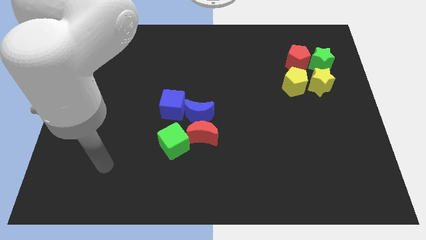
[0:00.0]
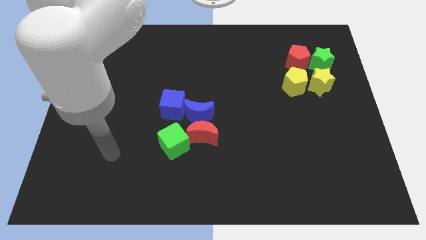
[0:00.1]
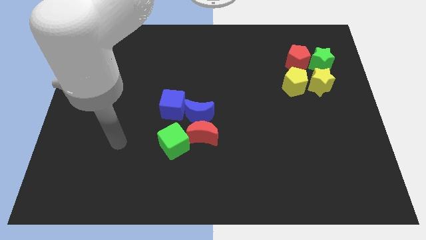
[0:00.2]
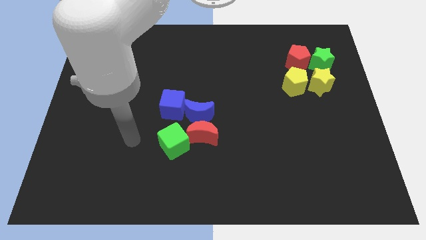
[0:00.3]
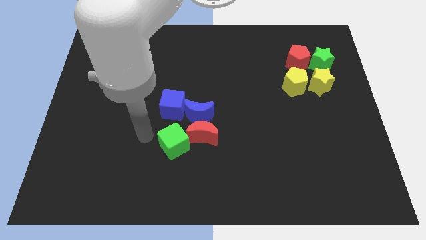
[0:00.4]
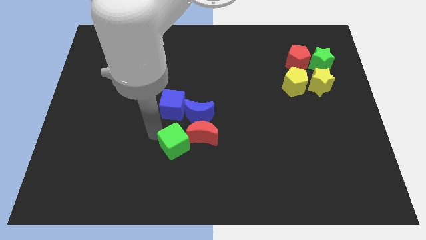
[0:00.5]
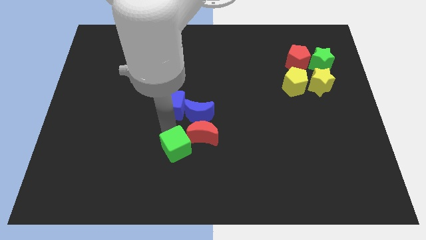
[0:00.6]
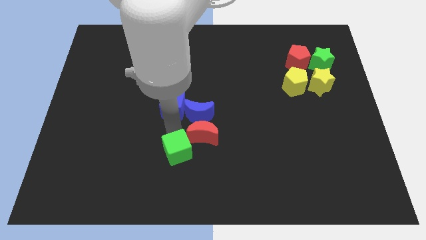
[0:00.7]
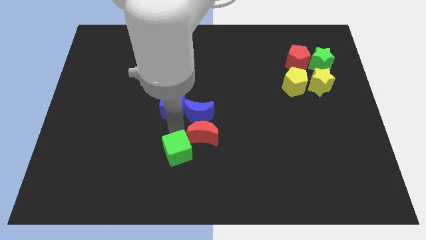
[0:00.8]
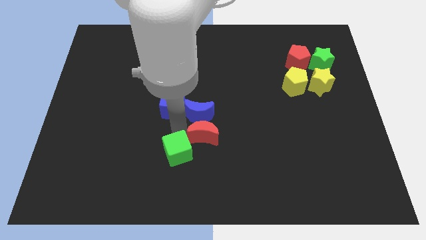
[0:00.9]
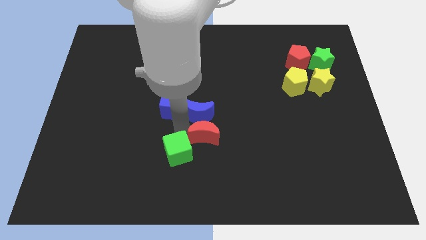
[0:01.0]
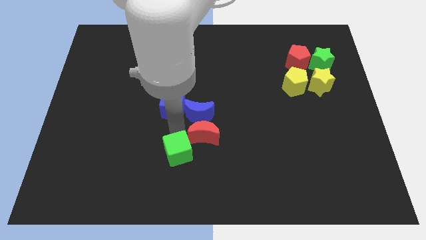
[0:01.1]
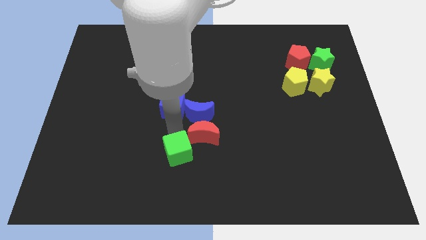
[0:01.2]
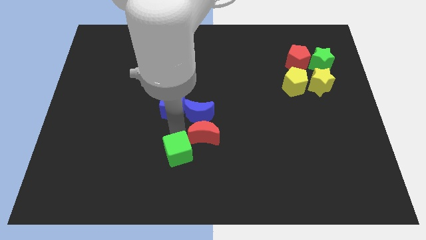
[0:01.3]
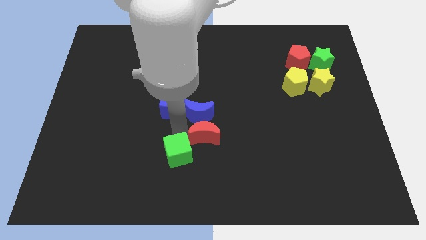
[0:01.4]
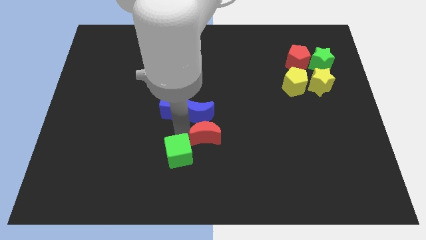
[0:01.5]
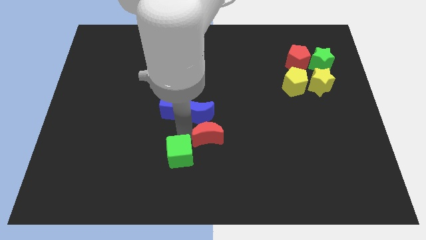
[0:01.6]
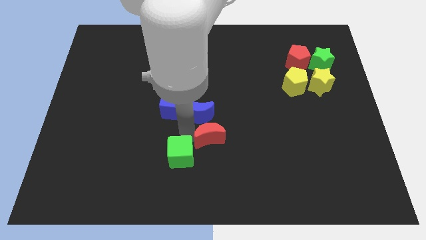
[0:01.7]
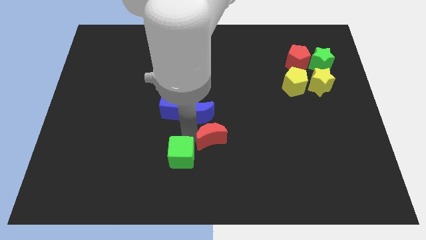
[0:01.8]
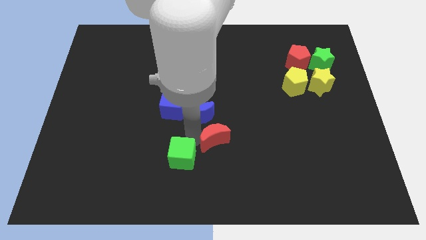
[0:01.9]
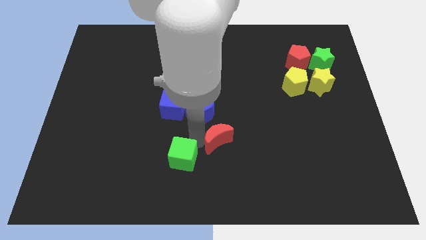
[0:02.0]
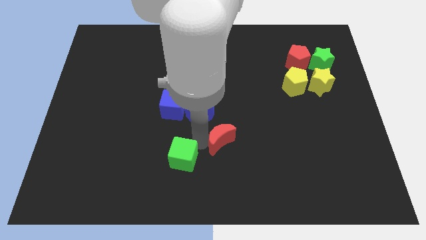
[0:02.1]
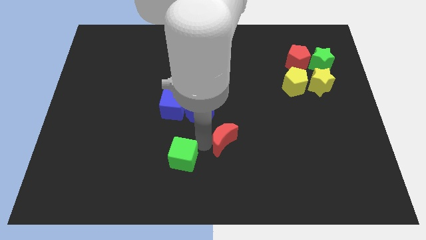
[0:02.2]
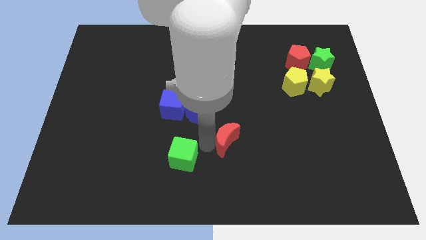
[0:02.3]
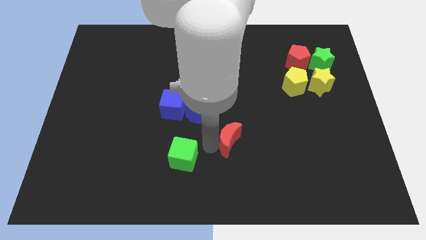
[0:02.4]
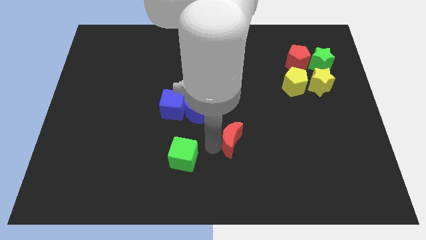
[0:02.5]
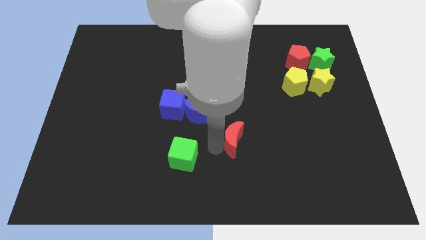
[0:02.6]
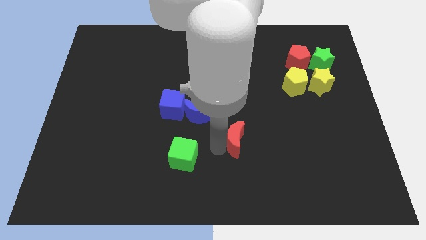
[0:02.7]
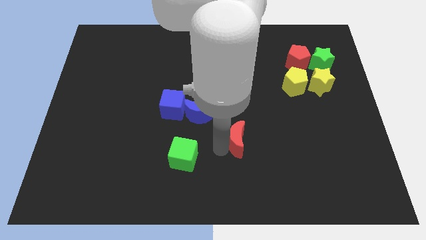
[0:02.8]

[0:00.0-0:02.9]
pull the red moon apart from the blue moon and green cube

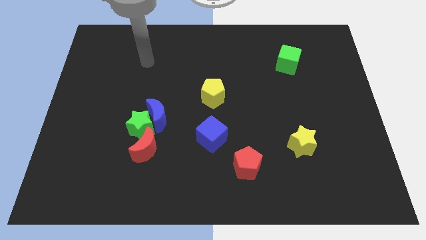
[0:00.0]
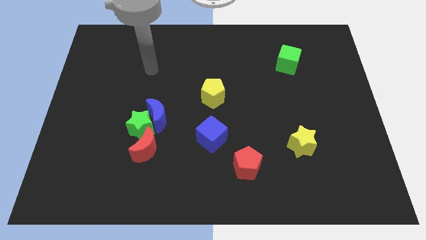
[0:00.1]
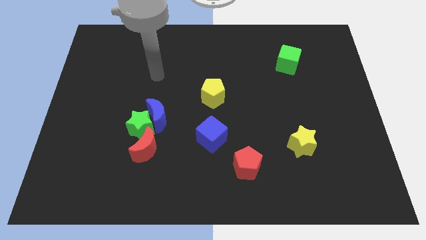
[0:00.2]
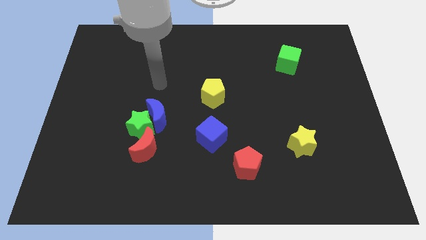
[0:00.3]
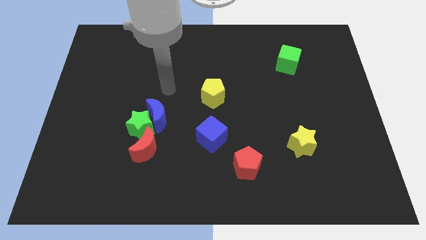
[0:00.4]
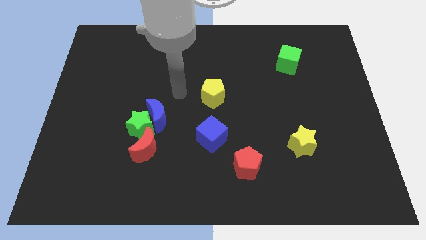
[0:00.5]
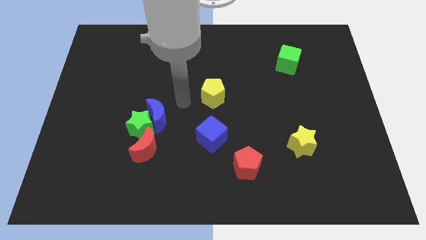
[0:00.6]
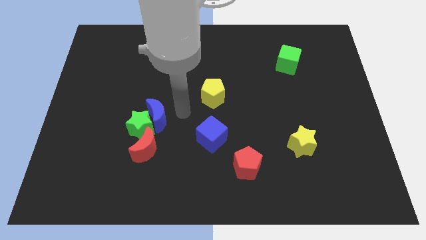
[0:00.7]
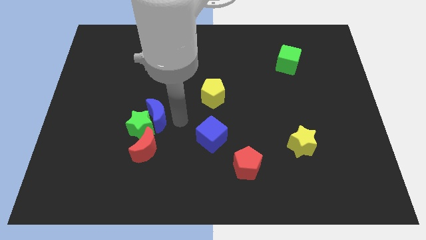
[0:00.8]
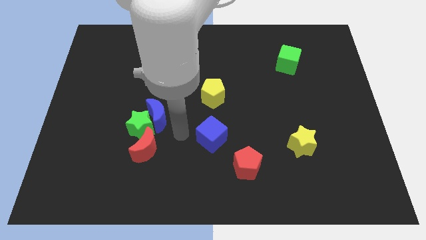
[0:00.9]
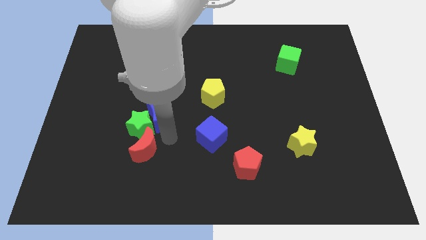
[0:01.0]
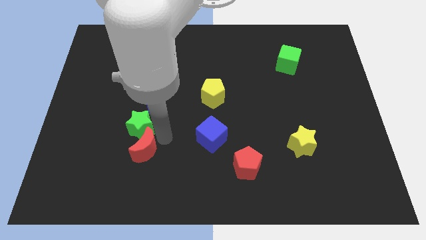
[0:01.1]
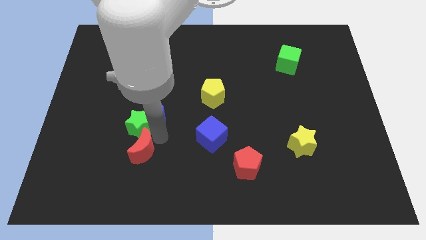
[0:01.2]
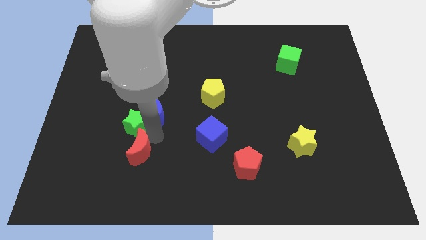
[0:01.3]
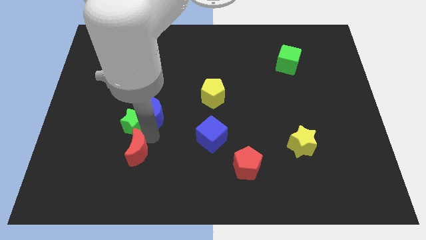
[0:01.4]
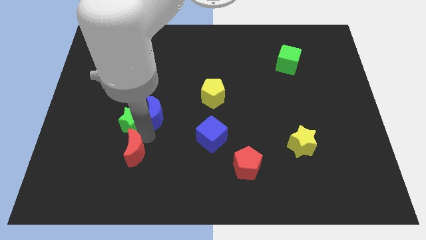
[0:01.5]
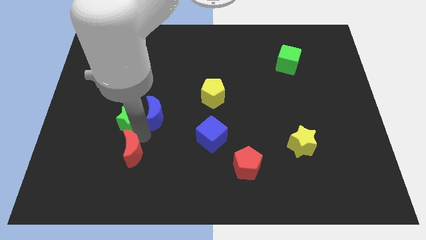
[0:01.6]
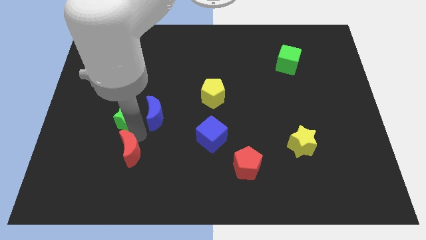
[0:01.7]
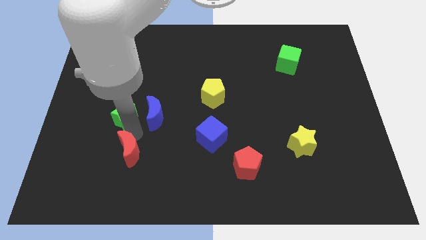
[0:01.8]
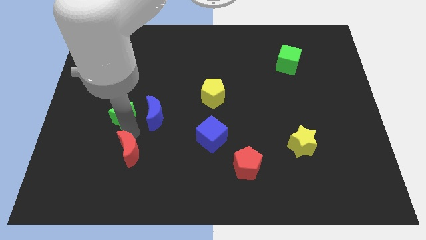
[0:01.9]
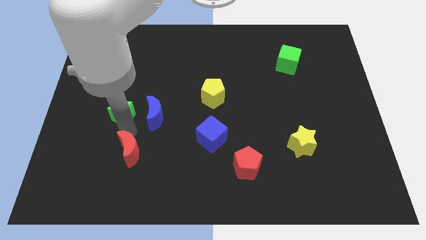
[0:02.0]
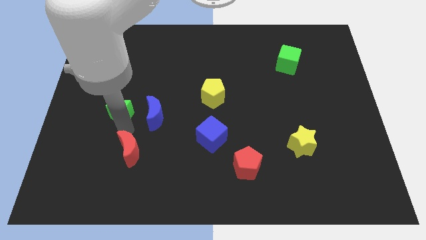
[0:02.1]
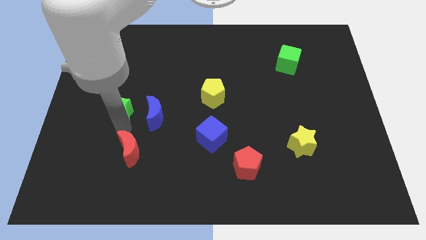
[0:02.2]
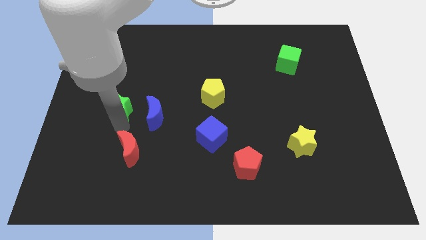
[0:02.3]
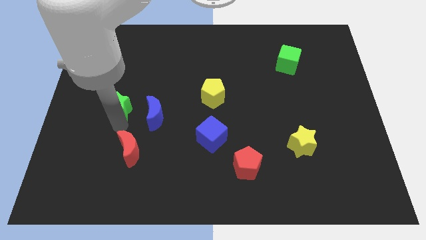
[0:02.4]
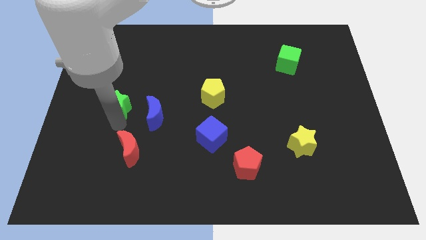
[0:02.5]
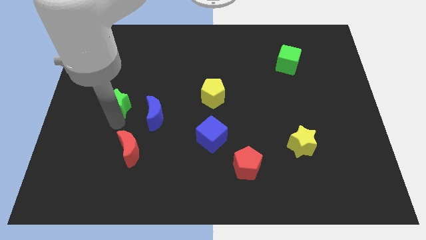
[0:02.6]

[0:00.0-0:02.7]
pull the green star apart from the blue moon and red moon

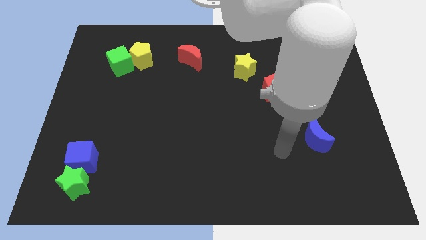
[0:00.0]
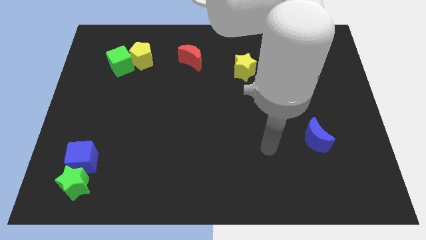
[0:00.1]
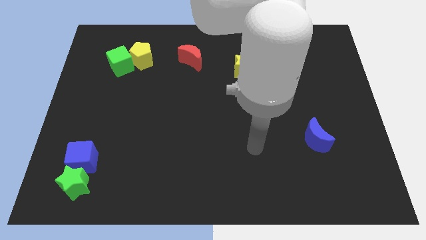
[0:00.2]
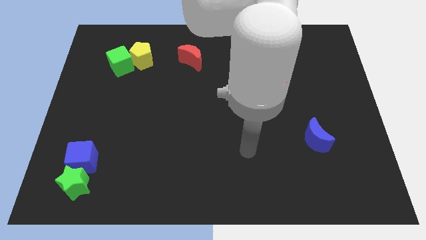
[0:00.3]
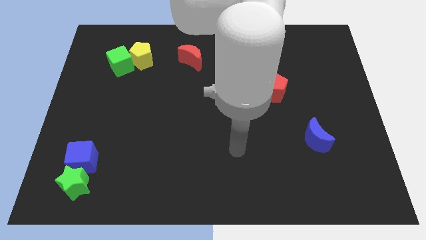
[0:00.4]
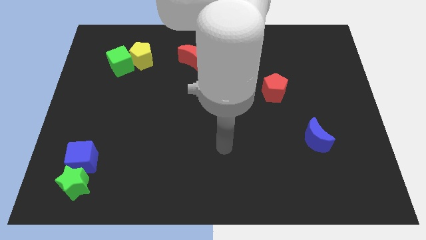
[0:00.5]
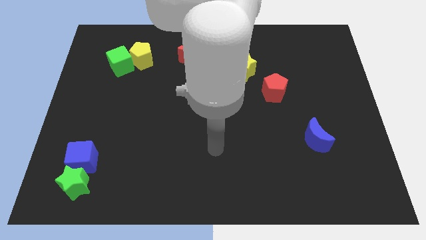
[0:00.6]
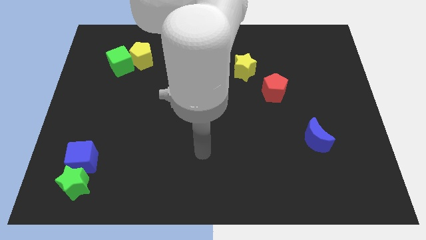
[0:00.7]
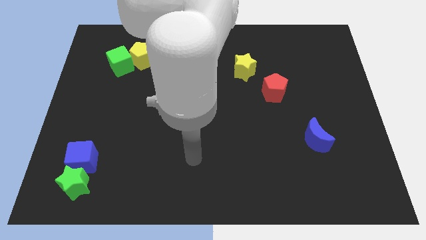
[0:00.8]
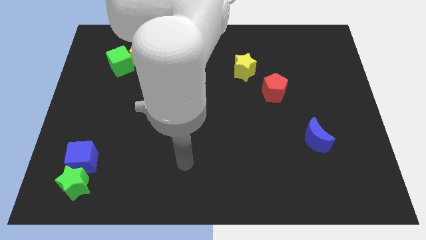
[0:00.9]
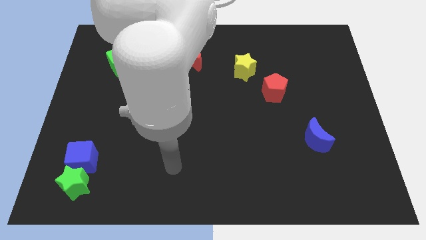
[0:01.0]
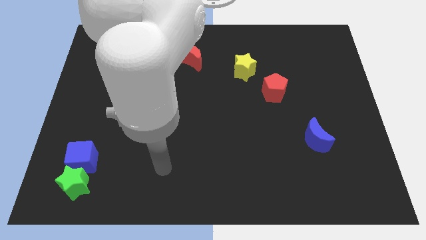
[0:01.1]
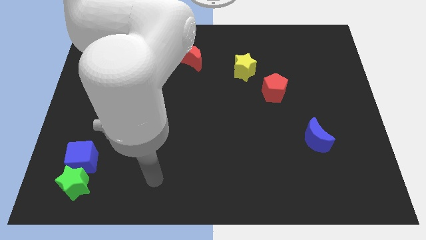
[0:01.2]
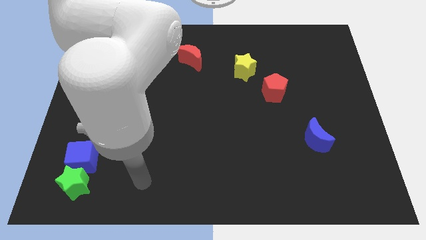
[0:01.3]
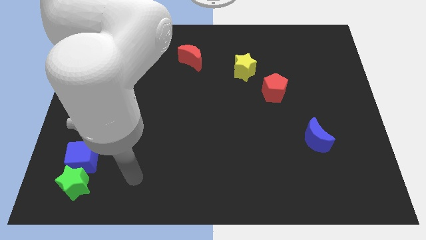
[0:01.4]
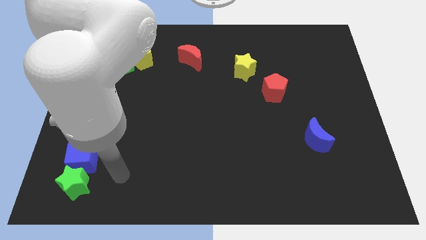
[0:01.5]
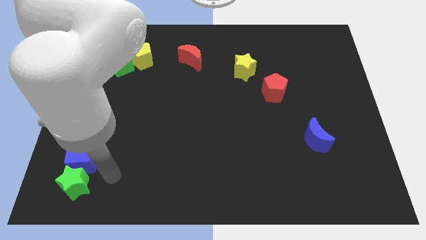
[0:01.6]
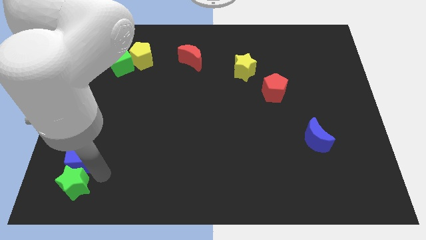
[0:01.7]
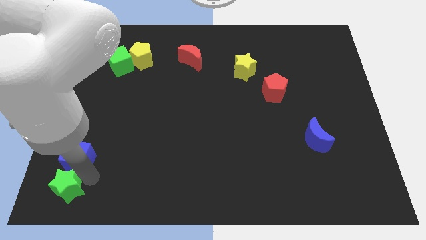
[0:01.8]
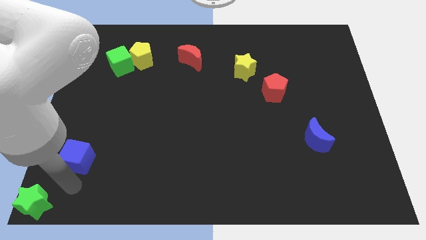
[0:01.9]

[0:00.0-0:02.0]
pull the blue cube apart from the green star

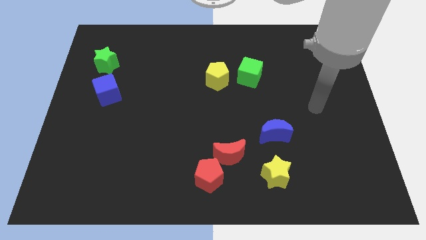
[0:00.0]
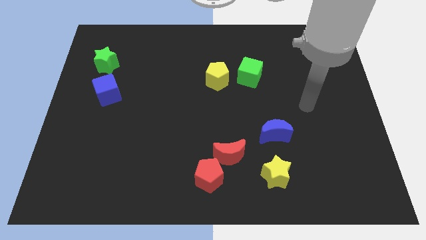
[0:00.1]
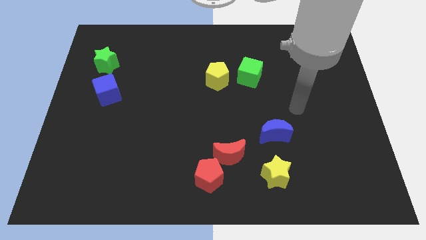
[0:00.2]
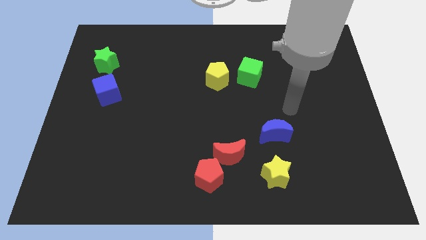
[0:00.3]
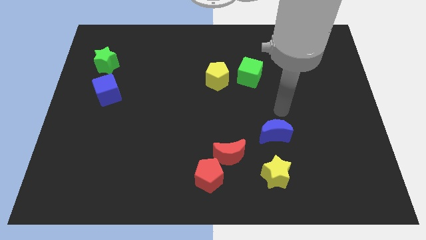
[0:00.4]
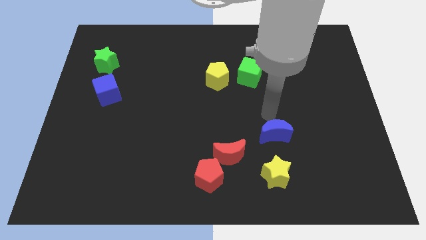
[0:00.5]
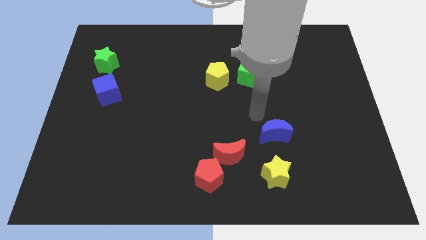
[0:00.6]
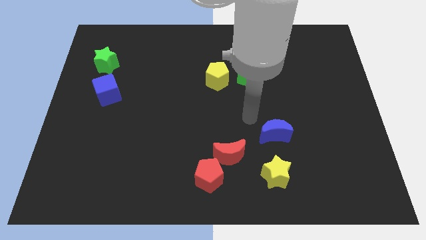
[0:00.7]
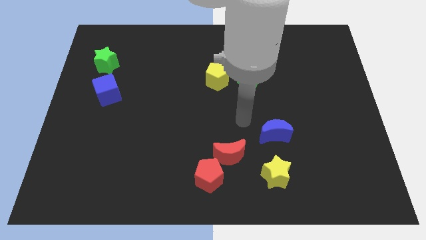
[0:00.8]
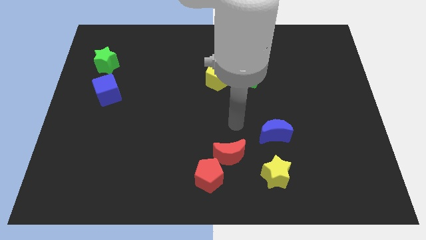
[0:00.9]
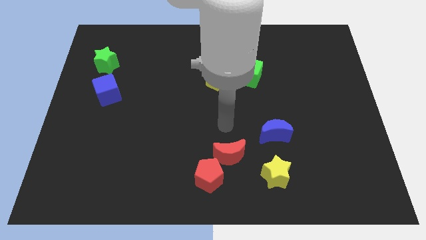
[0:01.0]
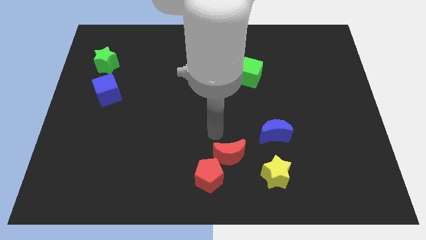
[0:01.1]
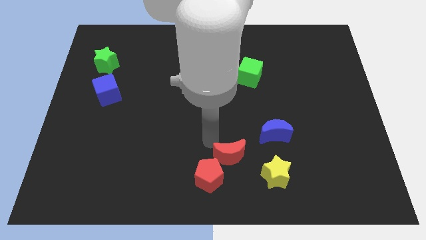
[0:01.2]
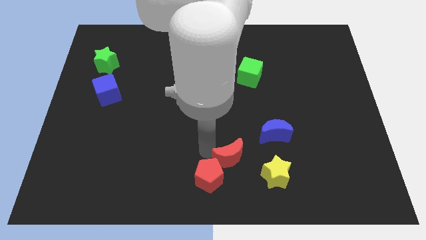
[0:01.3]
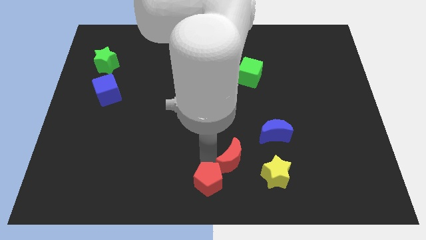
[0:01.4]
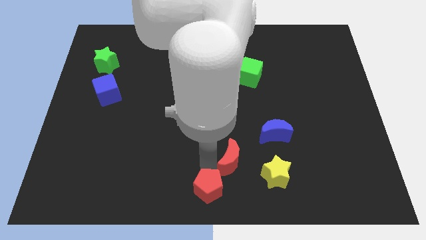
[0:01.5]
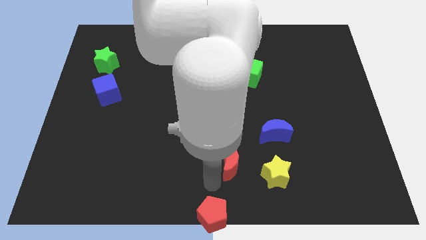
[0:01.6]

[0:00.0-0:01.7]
separate the red moon from the red pentagon
